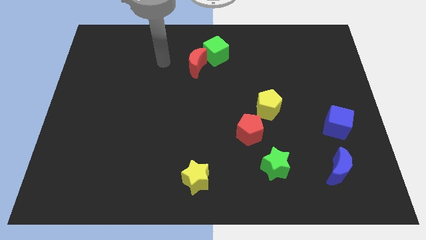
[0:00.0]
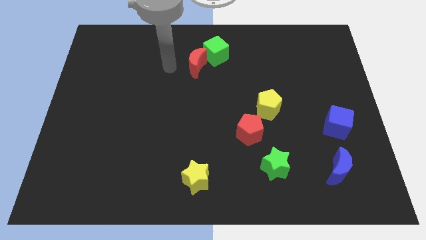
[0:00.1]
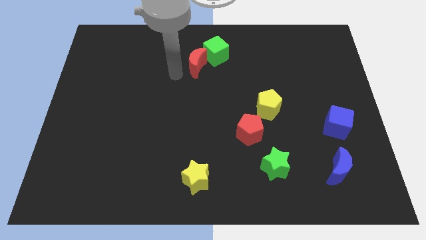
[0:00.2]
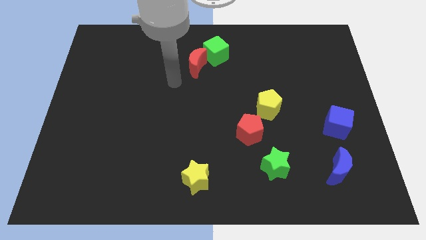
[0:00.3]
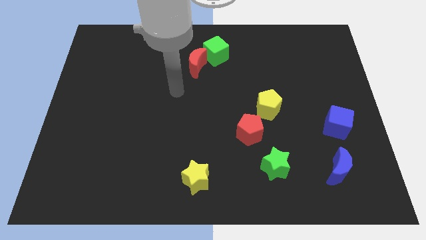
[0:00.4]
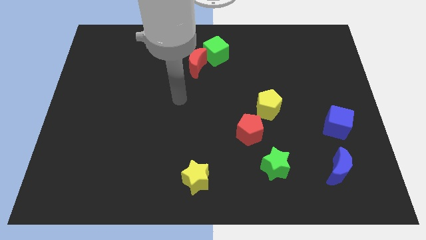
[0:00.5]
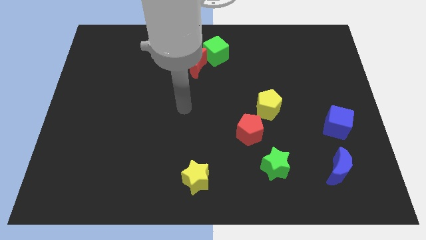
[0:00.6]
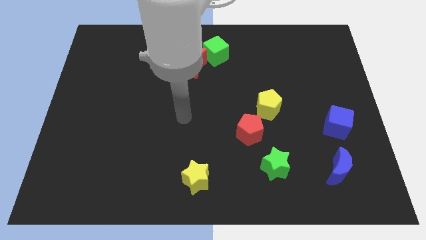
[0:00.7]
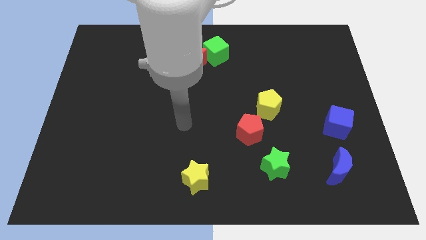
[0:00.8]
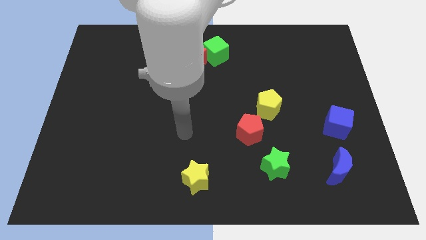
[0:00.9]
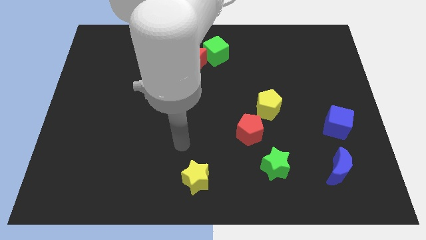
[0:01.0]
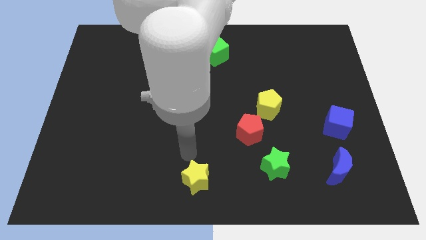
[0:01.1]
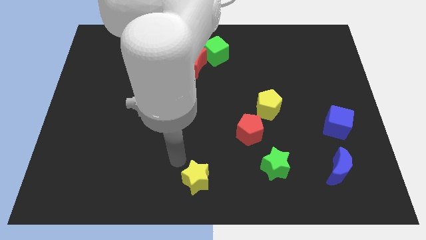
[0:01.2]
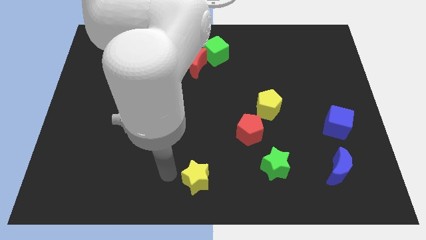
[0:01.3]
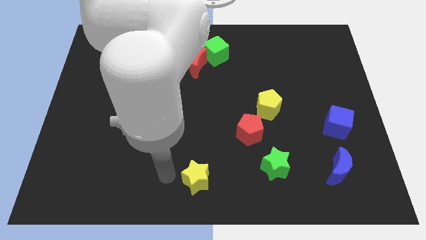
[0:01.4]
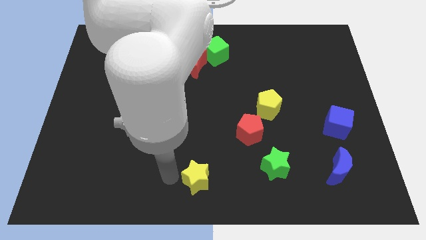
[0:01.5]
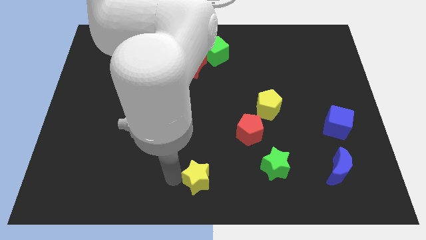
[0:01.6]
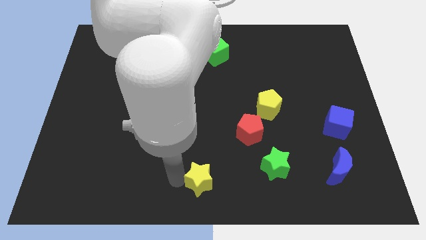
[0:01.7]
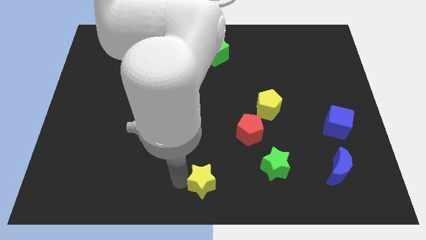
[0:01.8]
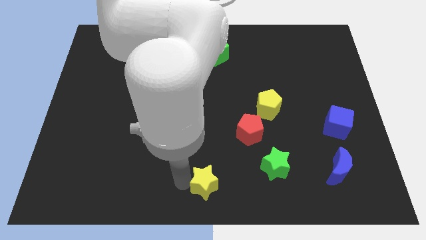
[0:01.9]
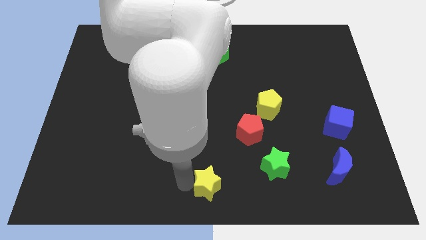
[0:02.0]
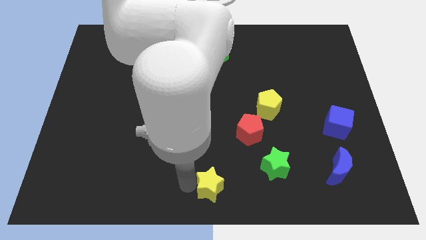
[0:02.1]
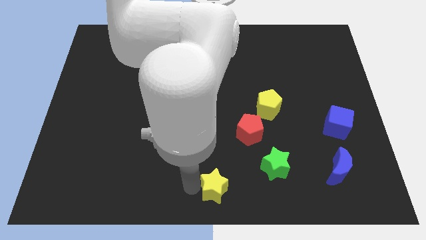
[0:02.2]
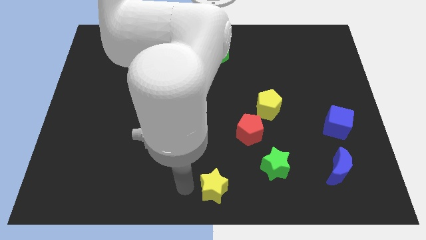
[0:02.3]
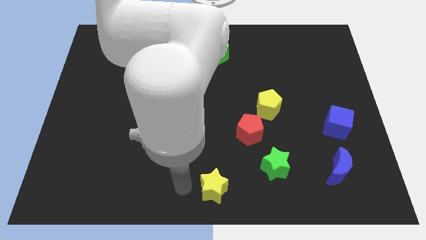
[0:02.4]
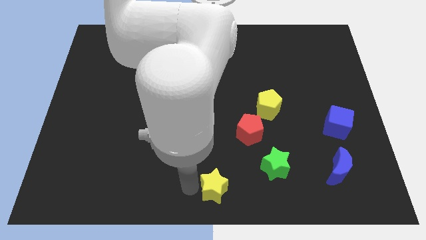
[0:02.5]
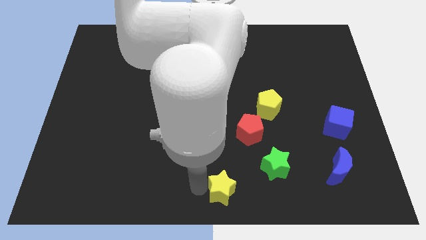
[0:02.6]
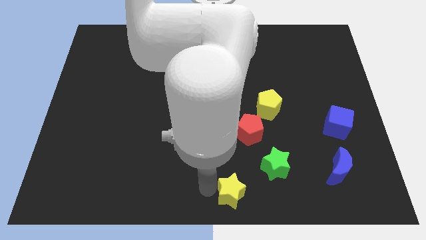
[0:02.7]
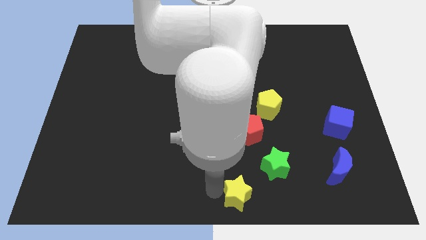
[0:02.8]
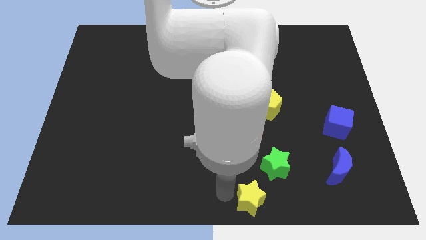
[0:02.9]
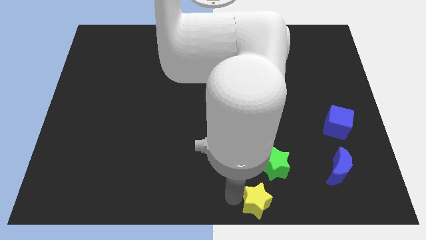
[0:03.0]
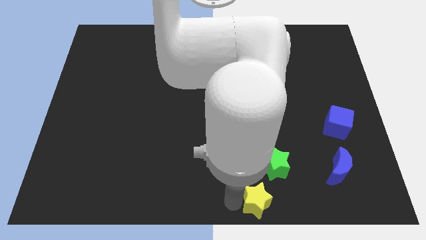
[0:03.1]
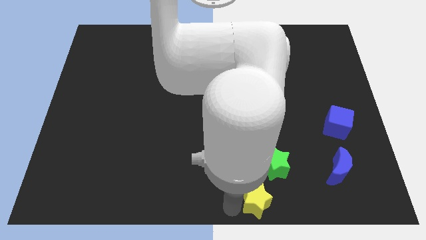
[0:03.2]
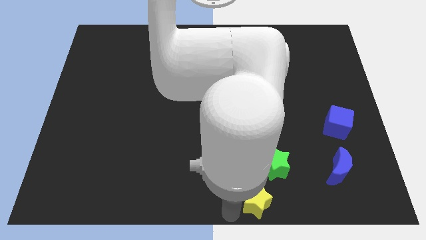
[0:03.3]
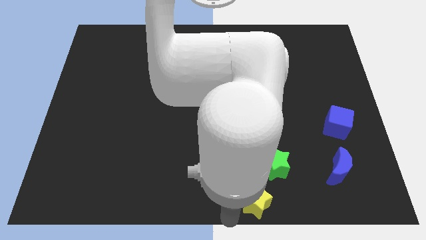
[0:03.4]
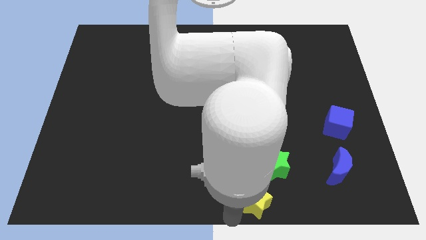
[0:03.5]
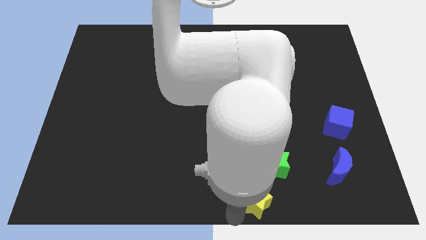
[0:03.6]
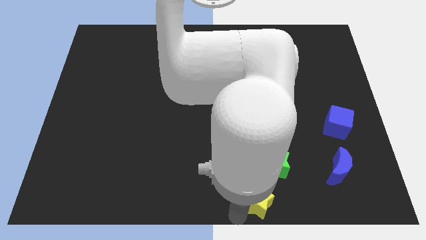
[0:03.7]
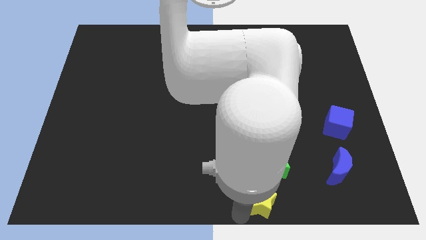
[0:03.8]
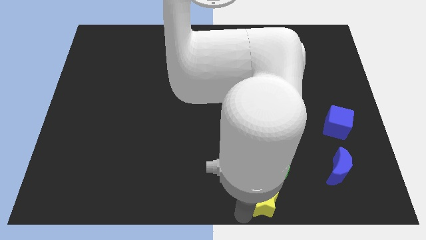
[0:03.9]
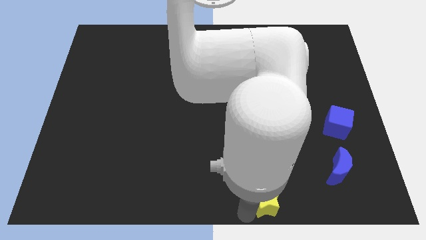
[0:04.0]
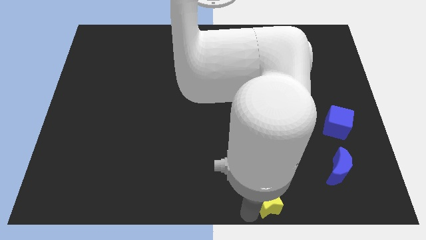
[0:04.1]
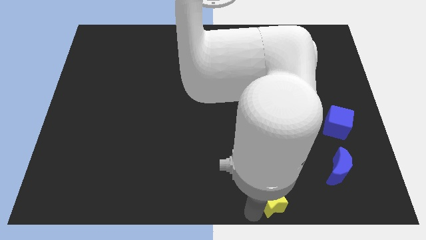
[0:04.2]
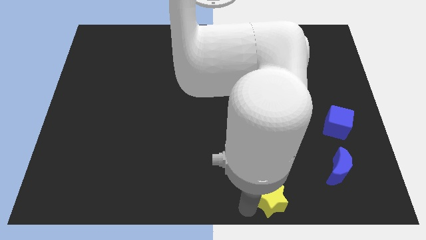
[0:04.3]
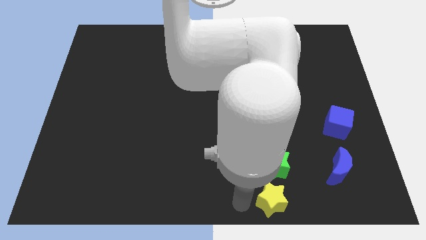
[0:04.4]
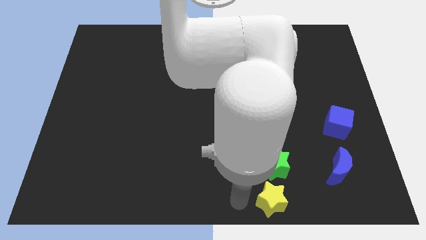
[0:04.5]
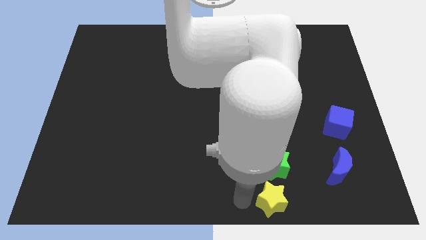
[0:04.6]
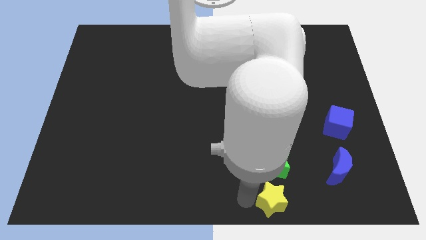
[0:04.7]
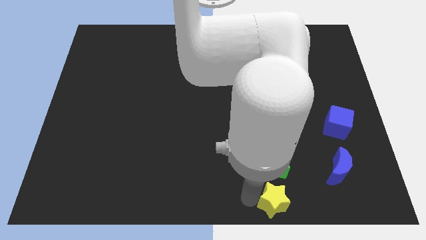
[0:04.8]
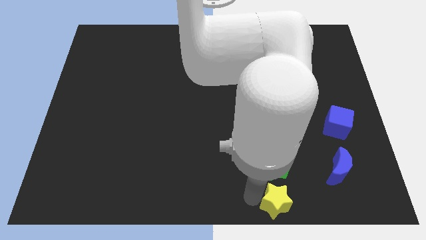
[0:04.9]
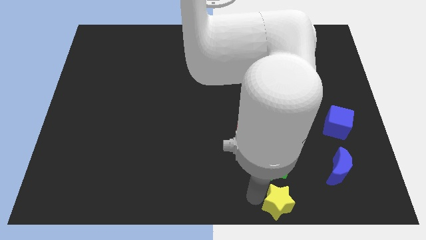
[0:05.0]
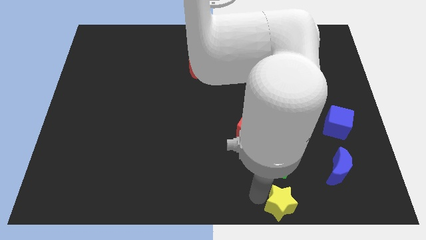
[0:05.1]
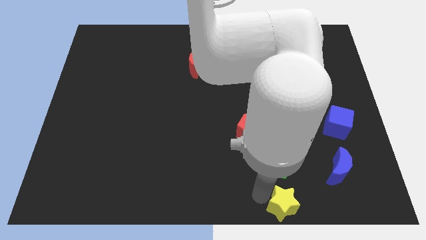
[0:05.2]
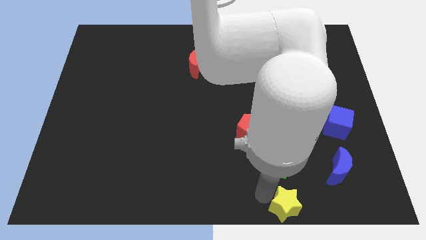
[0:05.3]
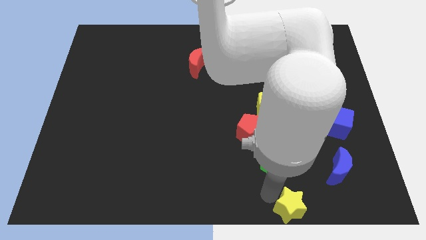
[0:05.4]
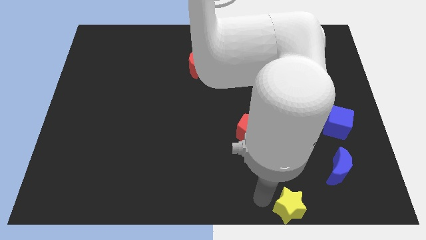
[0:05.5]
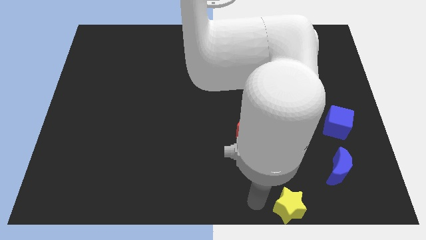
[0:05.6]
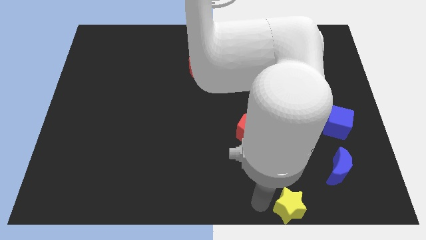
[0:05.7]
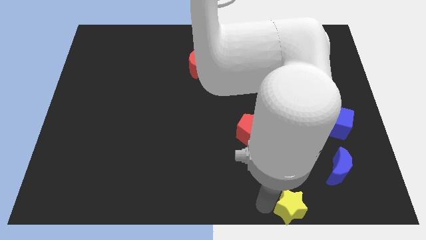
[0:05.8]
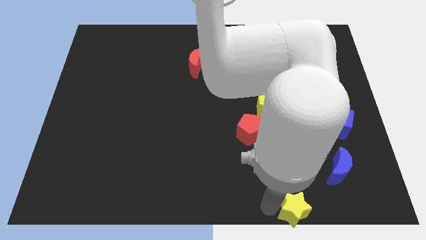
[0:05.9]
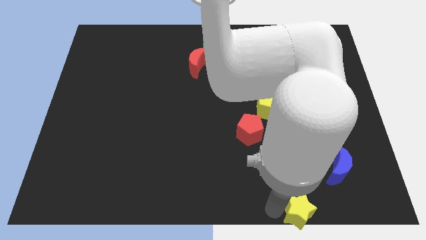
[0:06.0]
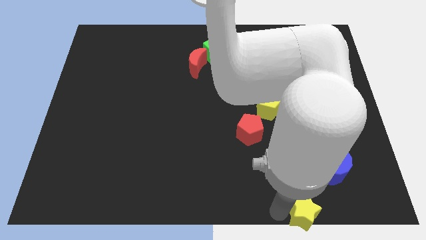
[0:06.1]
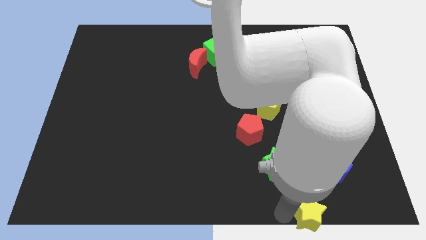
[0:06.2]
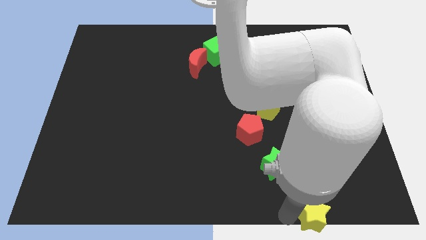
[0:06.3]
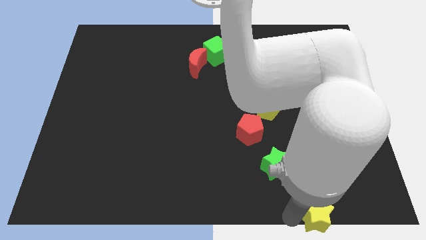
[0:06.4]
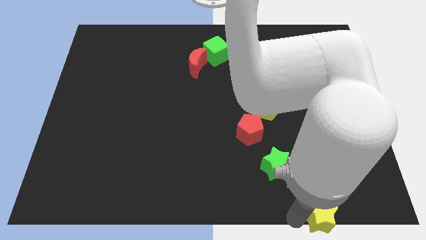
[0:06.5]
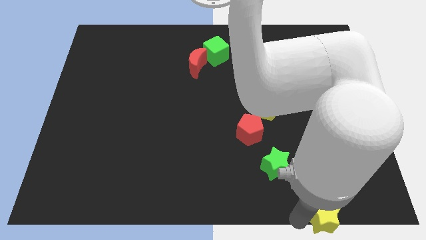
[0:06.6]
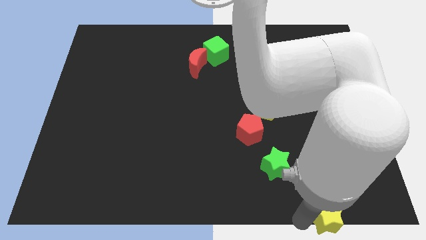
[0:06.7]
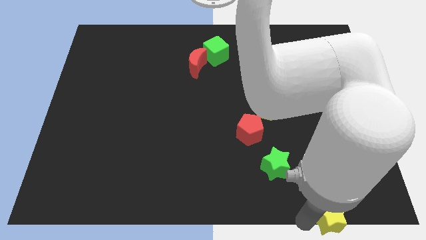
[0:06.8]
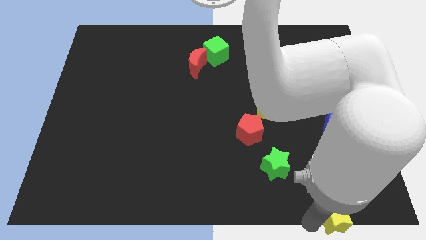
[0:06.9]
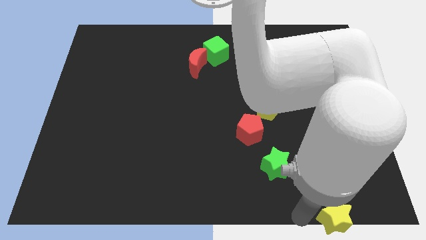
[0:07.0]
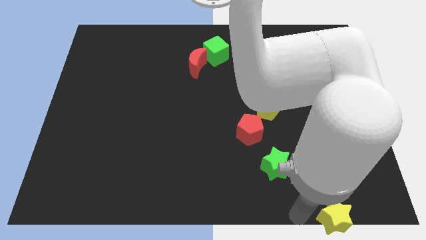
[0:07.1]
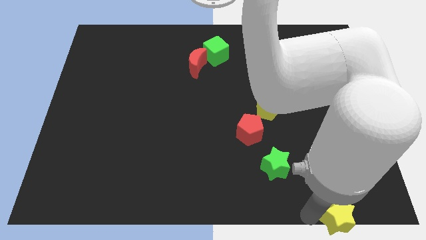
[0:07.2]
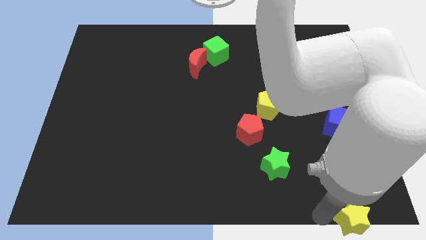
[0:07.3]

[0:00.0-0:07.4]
push the yellow star to the lower right corner
